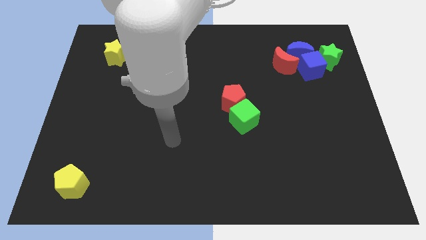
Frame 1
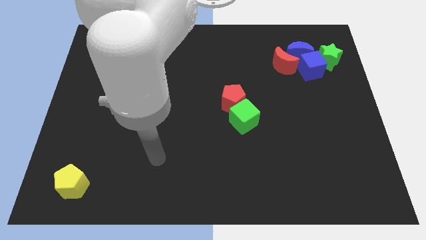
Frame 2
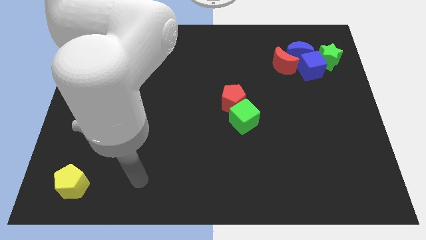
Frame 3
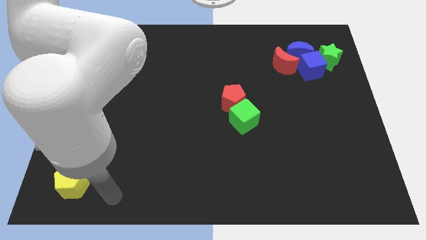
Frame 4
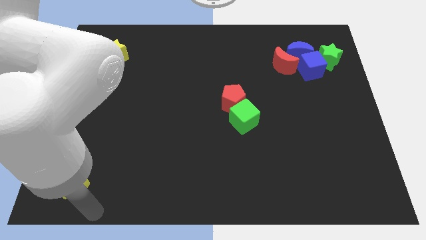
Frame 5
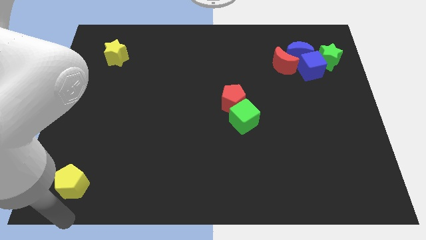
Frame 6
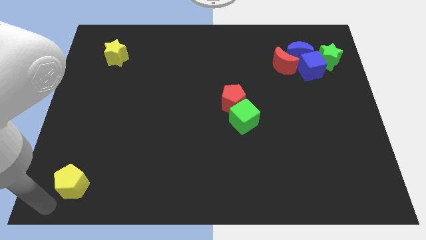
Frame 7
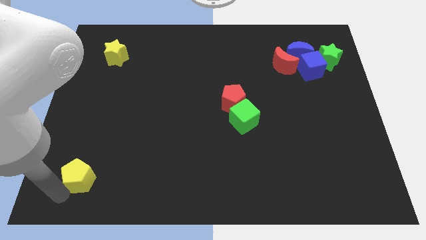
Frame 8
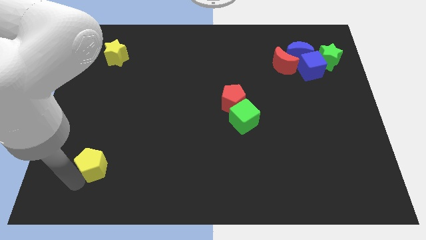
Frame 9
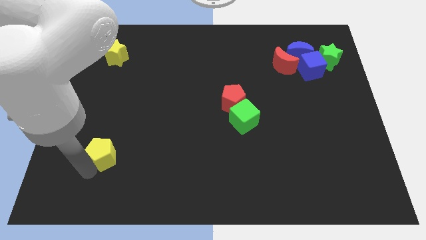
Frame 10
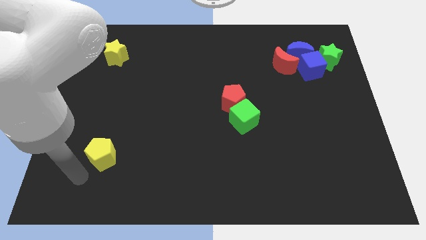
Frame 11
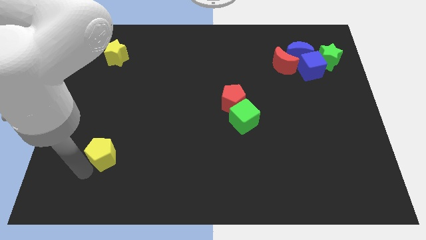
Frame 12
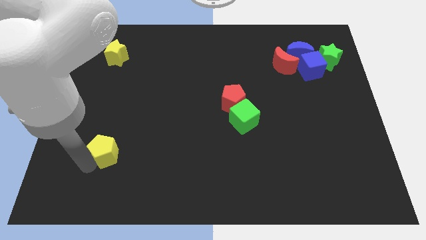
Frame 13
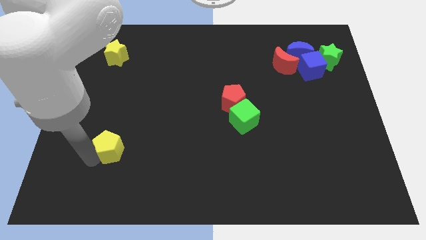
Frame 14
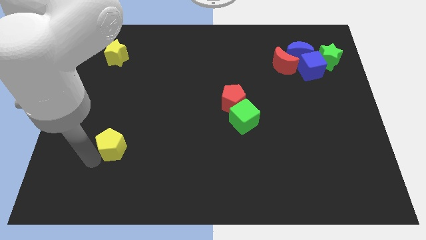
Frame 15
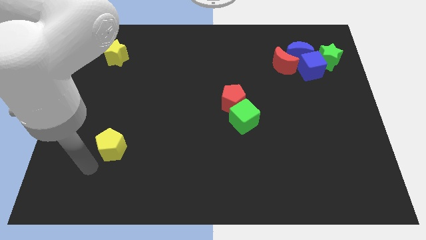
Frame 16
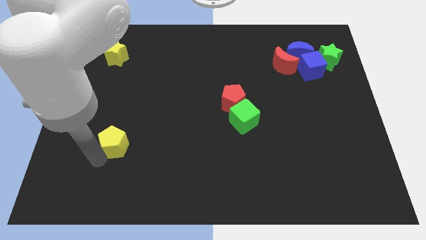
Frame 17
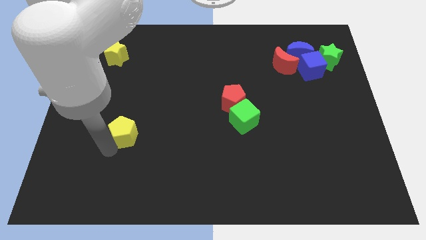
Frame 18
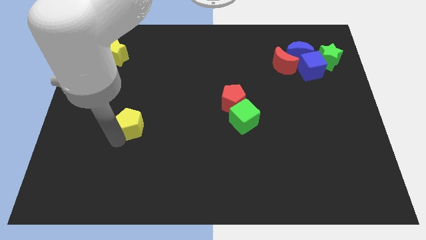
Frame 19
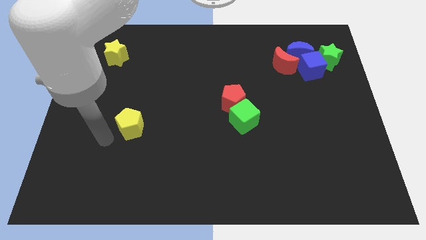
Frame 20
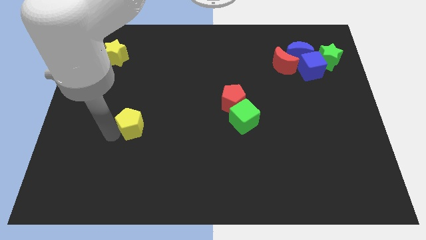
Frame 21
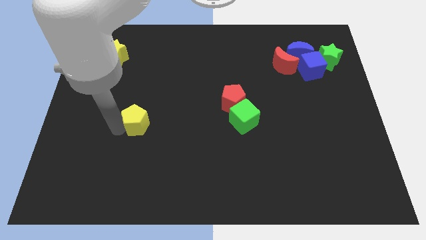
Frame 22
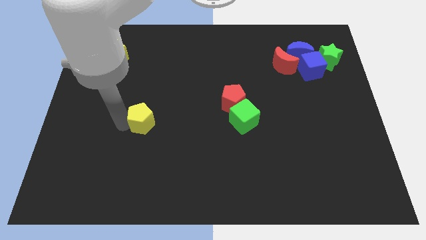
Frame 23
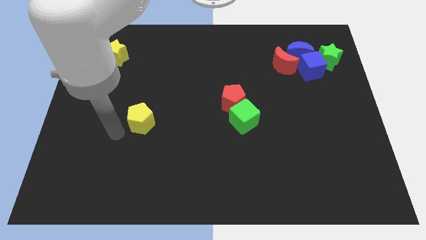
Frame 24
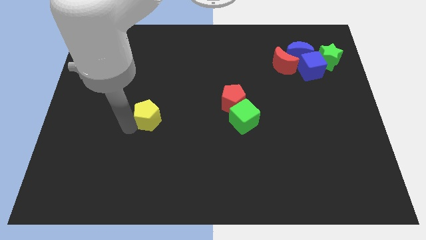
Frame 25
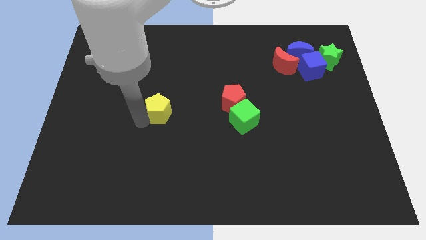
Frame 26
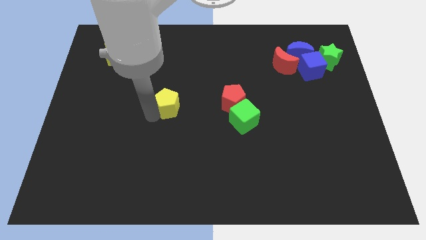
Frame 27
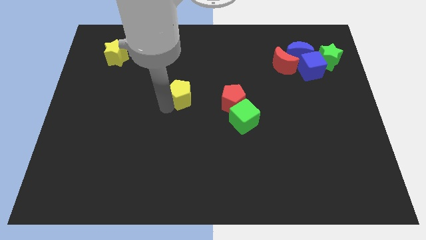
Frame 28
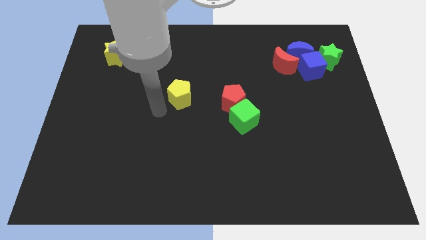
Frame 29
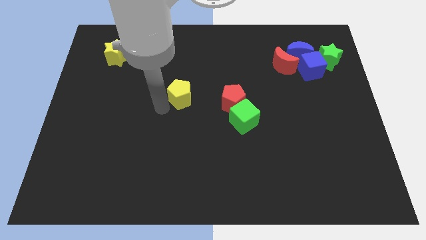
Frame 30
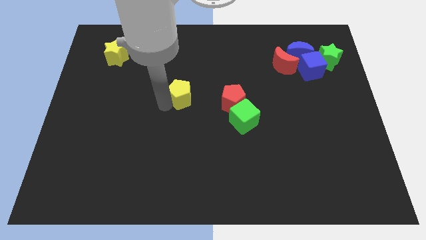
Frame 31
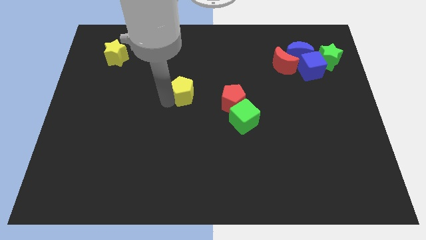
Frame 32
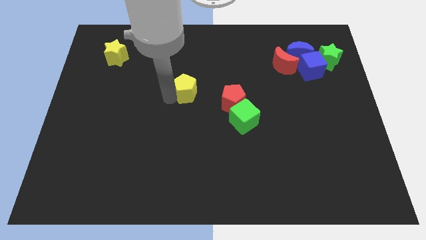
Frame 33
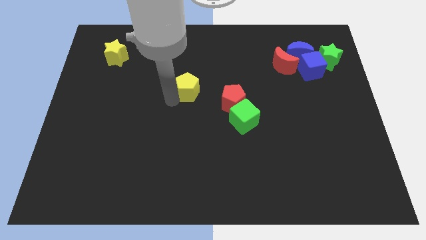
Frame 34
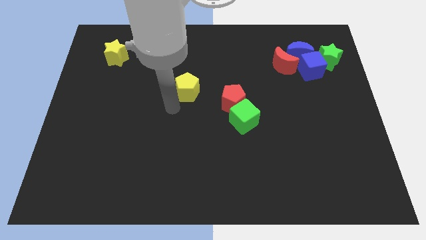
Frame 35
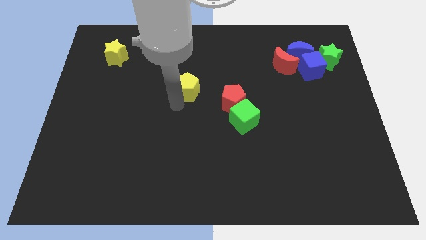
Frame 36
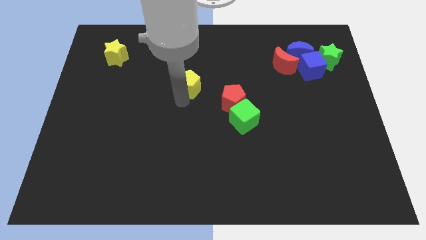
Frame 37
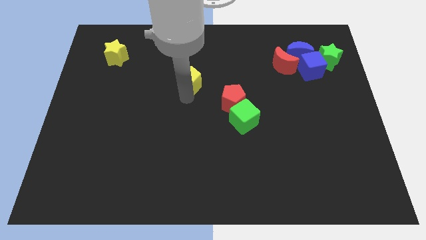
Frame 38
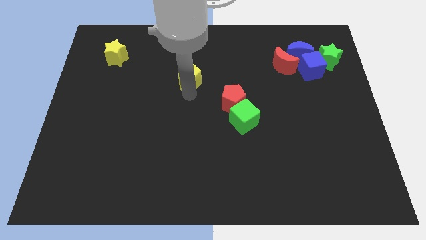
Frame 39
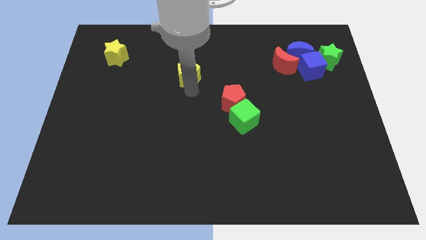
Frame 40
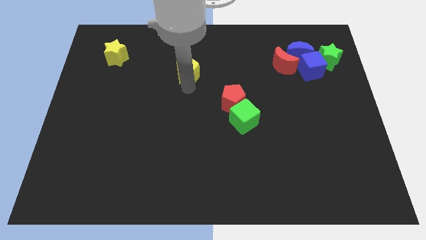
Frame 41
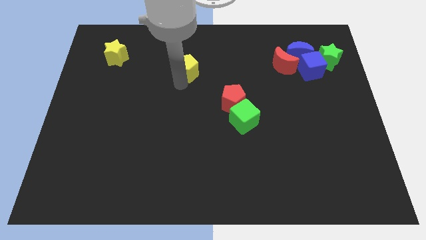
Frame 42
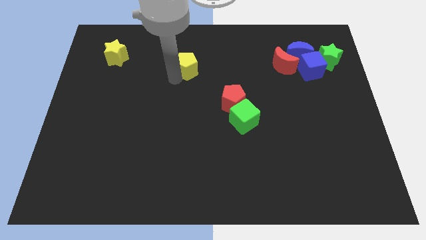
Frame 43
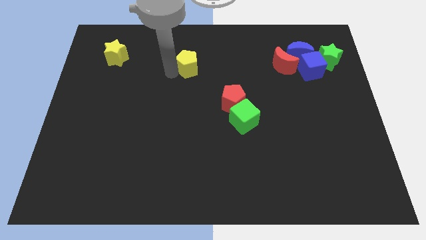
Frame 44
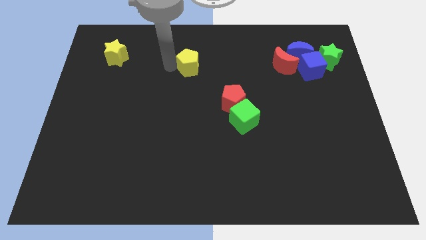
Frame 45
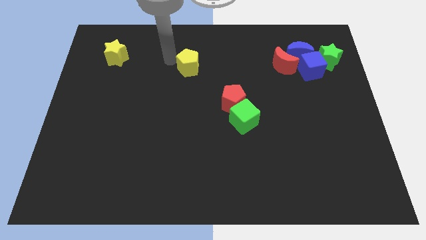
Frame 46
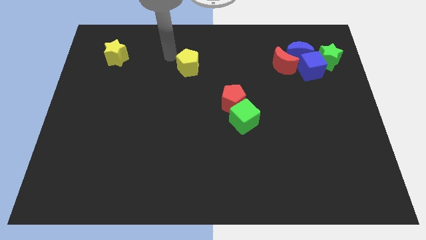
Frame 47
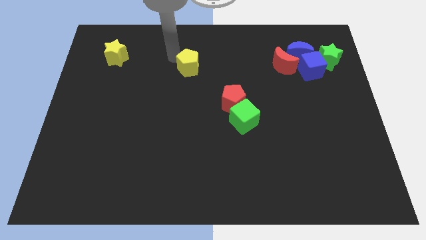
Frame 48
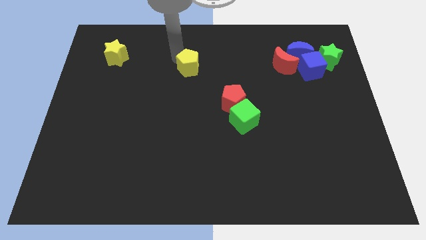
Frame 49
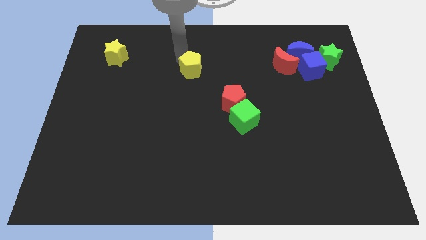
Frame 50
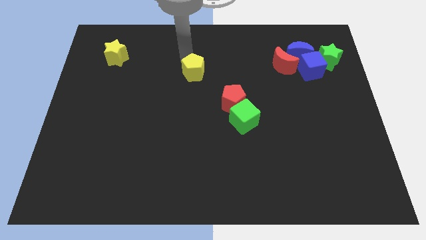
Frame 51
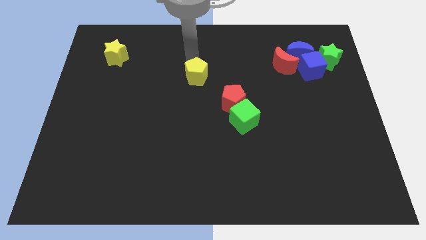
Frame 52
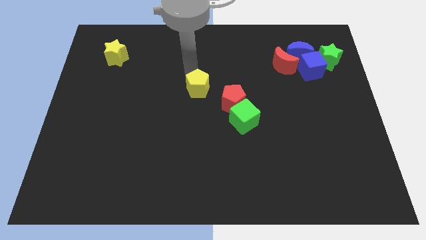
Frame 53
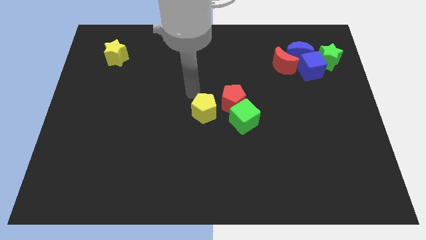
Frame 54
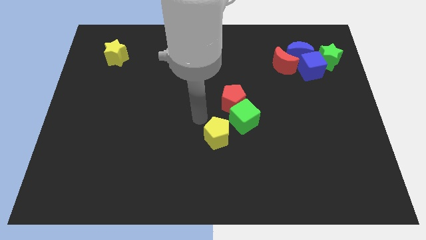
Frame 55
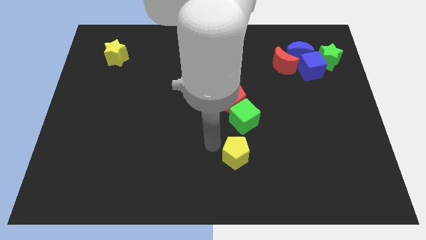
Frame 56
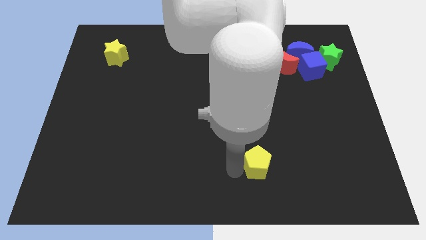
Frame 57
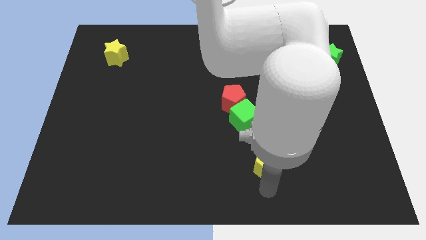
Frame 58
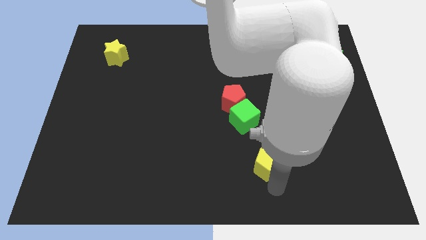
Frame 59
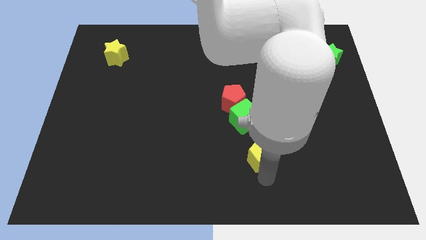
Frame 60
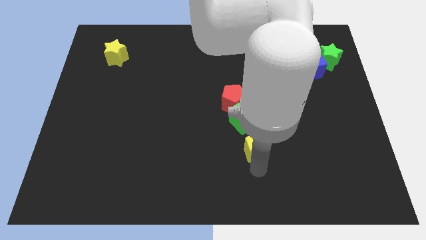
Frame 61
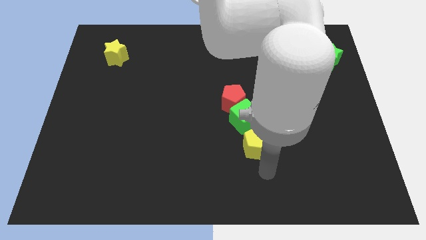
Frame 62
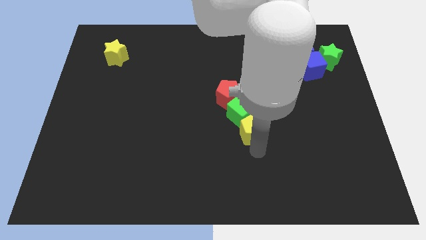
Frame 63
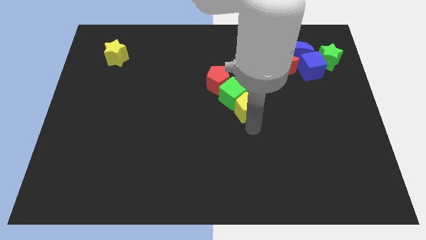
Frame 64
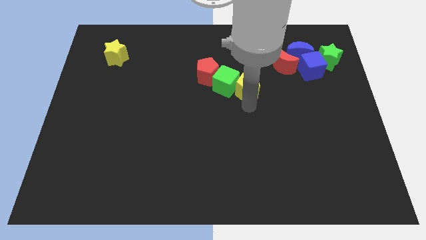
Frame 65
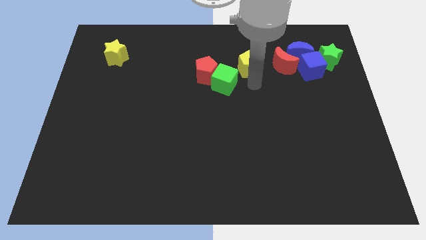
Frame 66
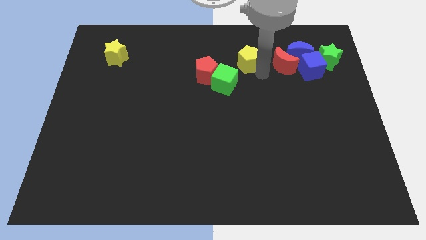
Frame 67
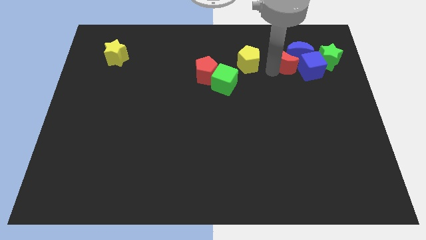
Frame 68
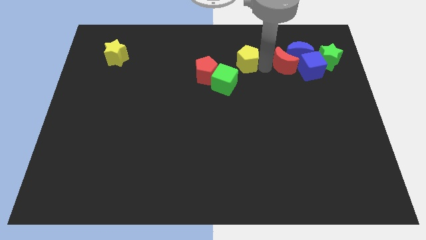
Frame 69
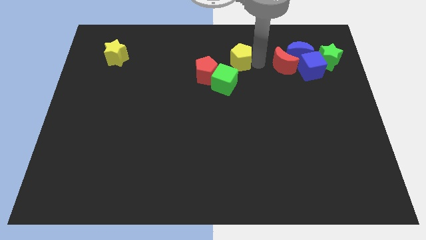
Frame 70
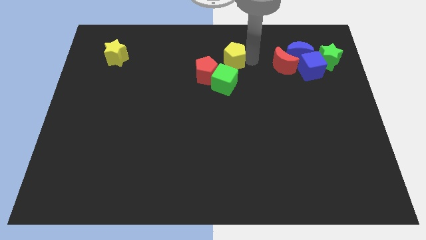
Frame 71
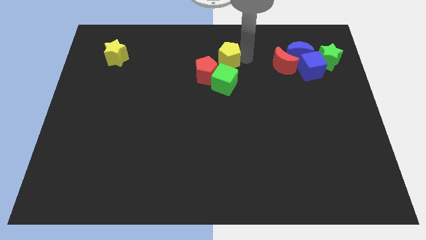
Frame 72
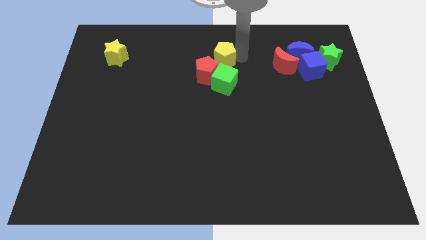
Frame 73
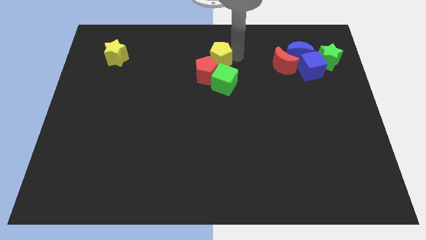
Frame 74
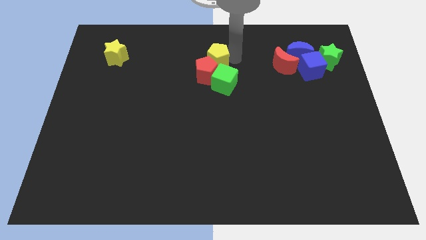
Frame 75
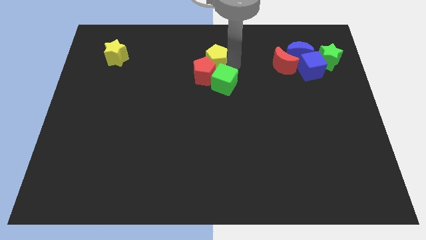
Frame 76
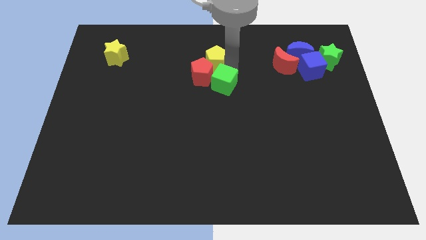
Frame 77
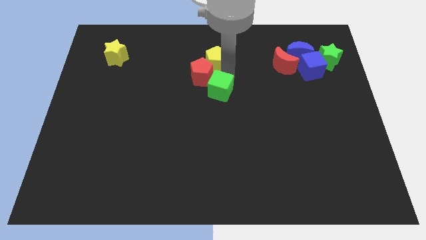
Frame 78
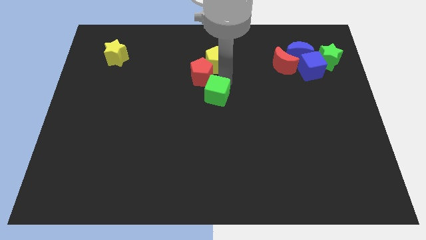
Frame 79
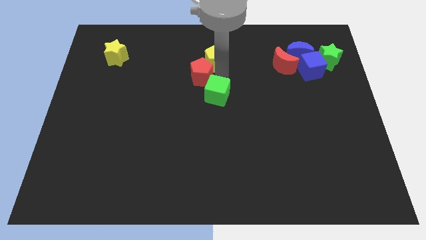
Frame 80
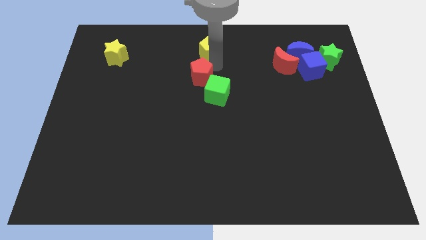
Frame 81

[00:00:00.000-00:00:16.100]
push the yellow pentagon to the top
